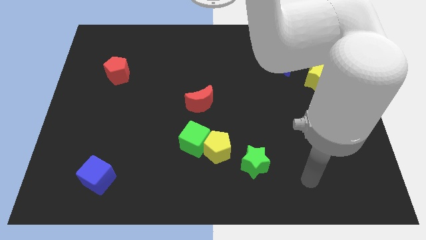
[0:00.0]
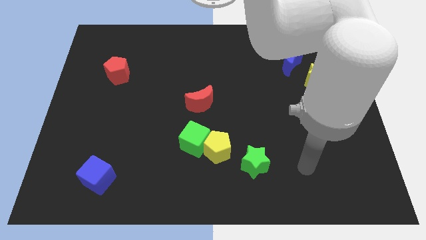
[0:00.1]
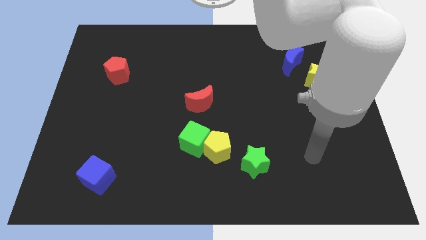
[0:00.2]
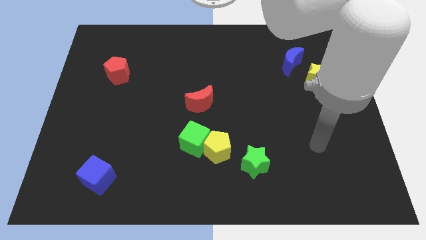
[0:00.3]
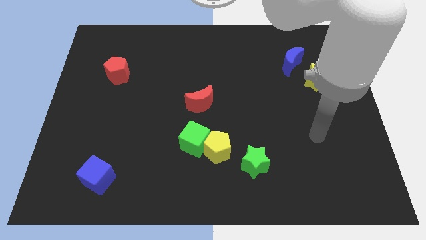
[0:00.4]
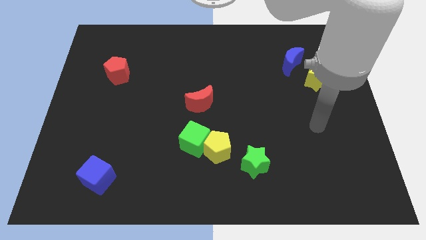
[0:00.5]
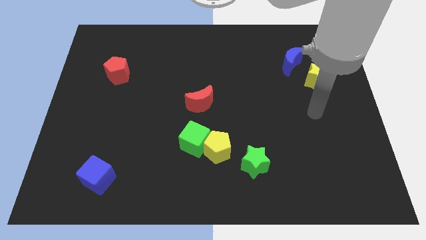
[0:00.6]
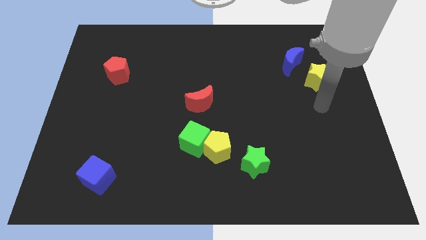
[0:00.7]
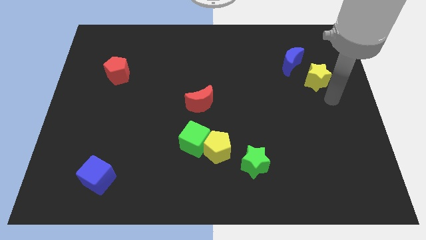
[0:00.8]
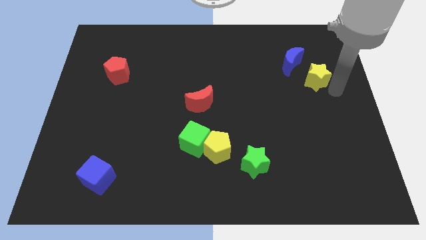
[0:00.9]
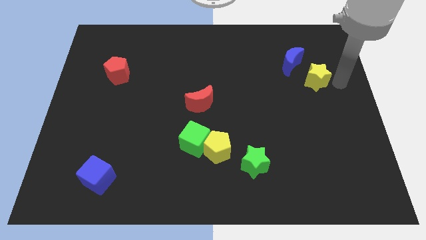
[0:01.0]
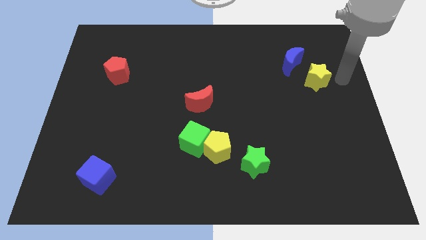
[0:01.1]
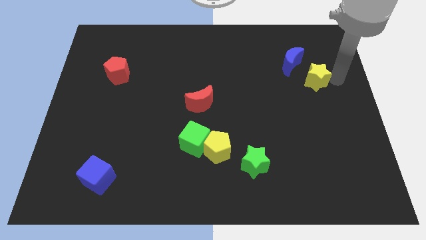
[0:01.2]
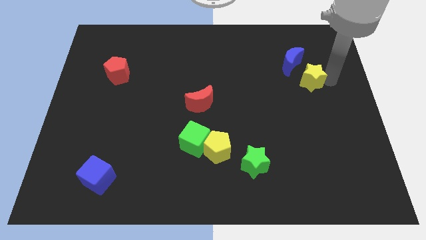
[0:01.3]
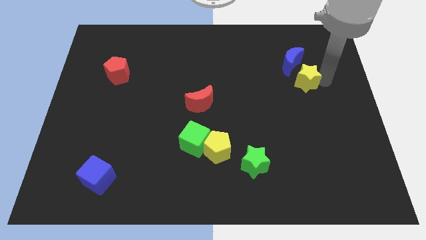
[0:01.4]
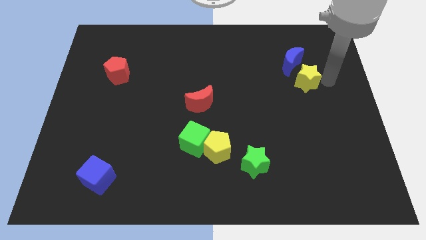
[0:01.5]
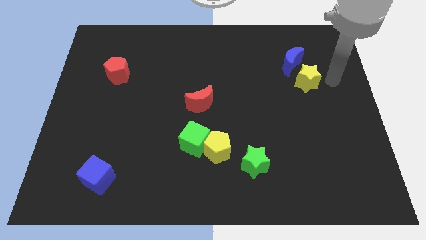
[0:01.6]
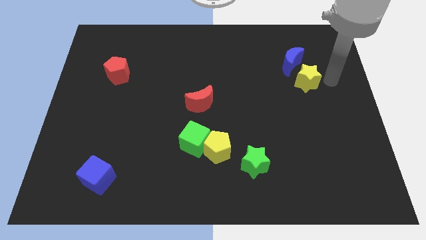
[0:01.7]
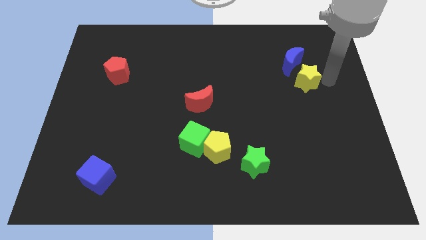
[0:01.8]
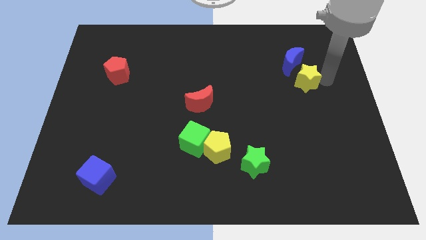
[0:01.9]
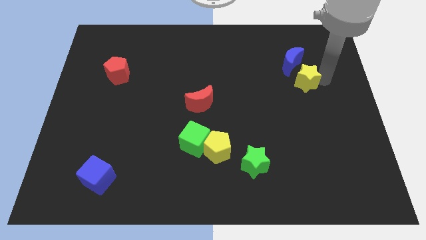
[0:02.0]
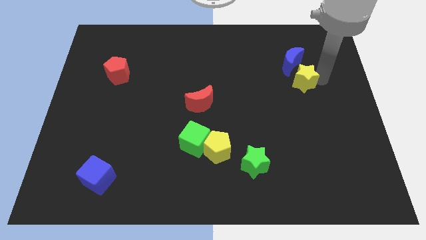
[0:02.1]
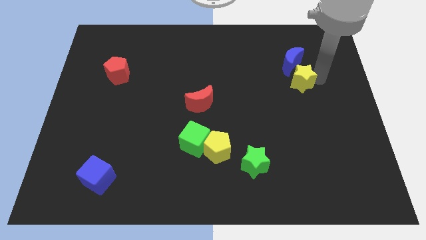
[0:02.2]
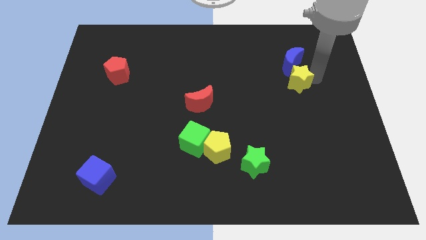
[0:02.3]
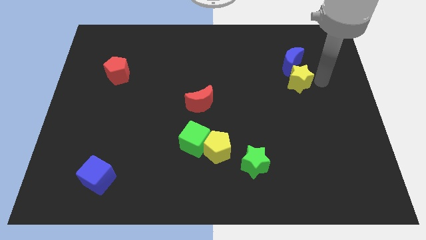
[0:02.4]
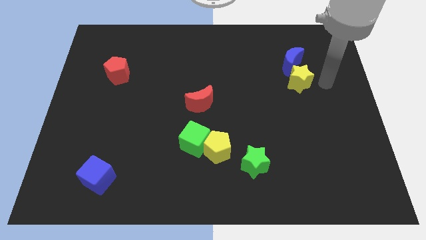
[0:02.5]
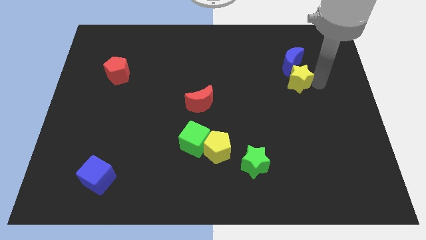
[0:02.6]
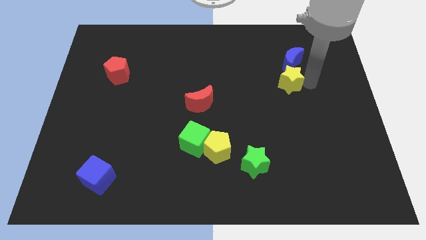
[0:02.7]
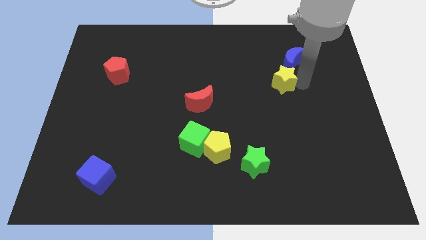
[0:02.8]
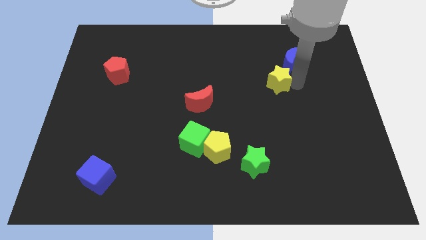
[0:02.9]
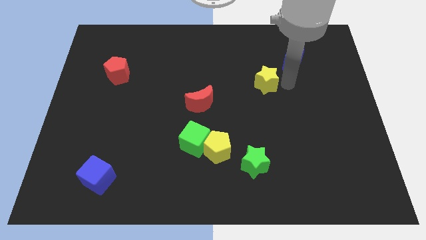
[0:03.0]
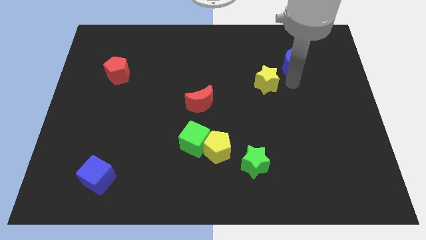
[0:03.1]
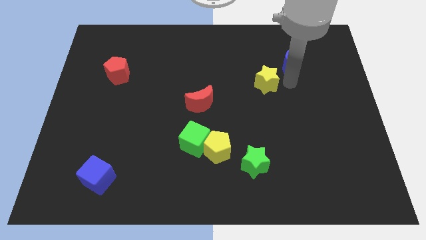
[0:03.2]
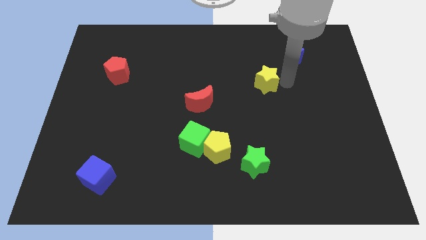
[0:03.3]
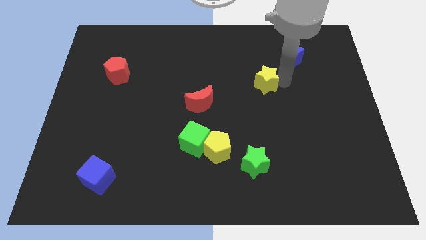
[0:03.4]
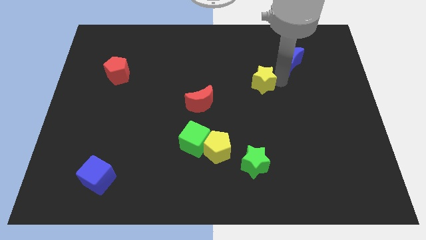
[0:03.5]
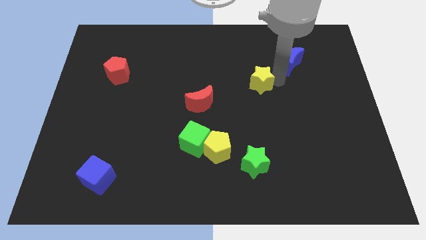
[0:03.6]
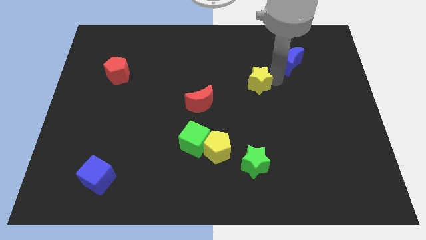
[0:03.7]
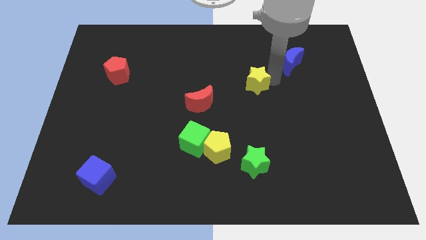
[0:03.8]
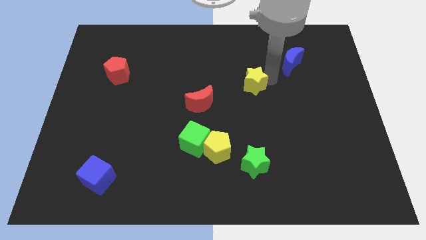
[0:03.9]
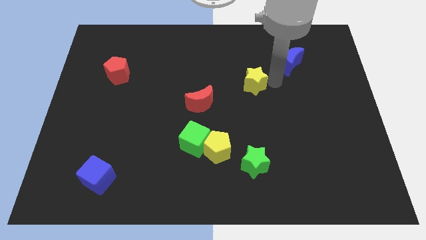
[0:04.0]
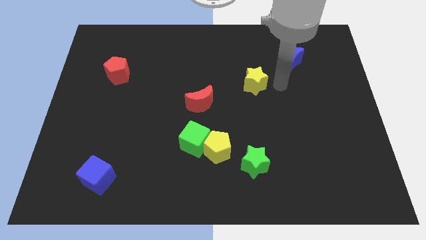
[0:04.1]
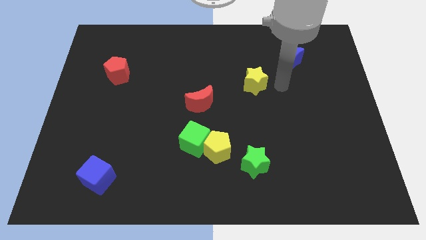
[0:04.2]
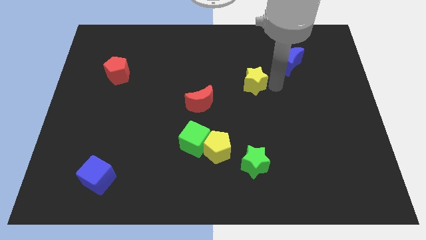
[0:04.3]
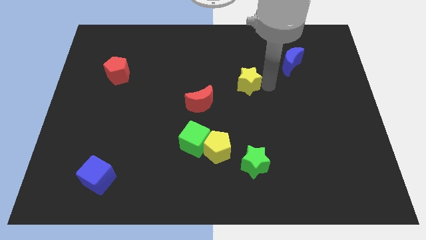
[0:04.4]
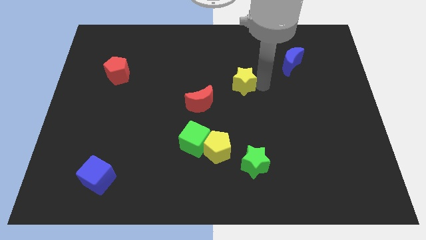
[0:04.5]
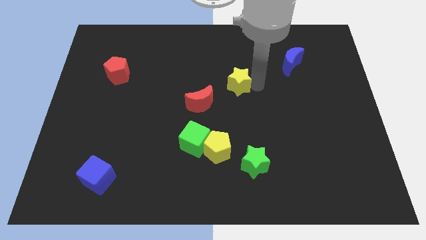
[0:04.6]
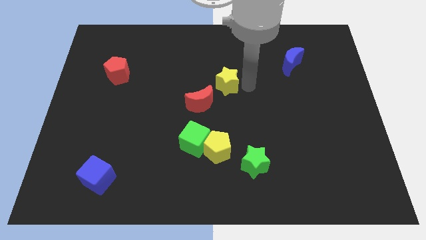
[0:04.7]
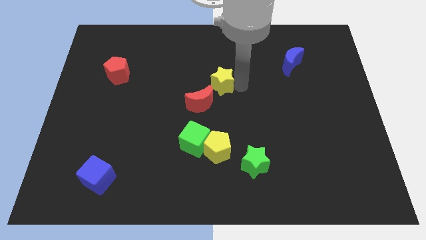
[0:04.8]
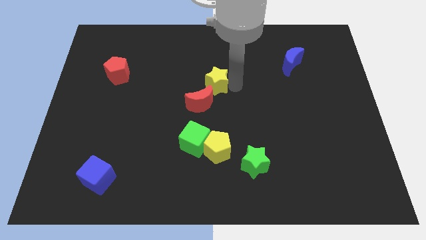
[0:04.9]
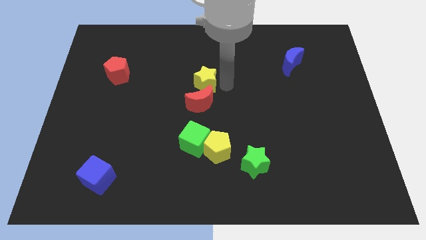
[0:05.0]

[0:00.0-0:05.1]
push the yellow star to the top left of the red moon

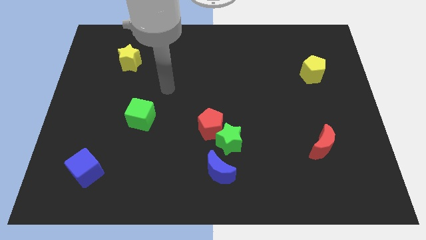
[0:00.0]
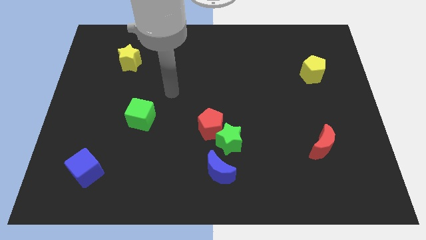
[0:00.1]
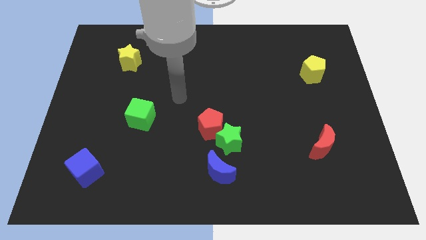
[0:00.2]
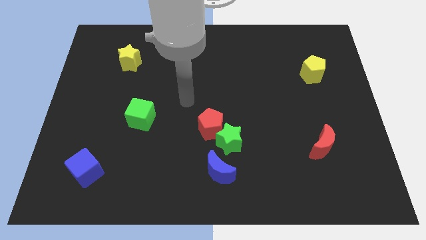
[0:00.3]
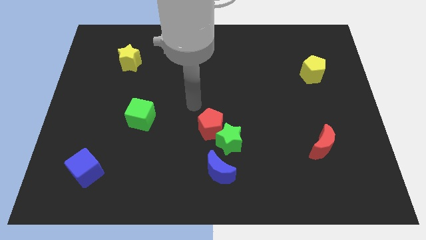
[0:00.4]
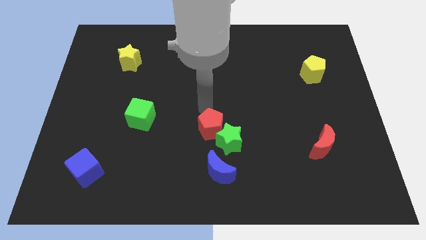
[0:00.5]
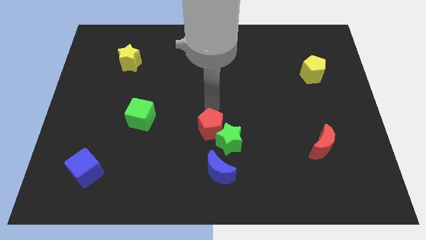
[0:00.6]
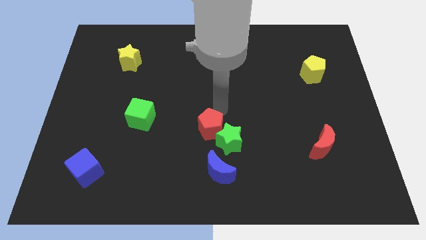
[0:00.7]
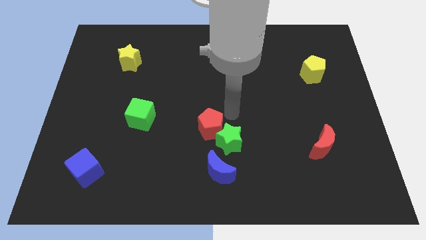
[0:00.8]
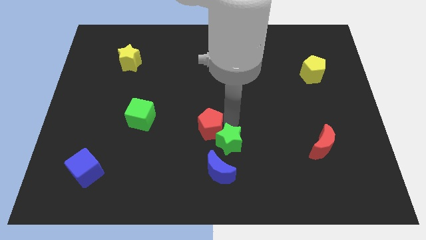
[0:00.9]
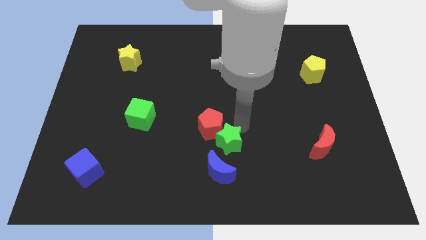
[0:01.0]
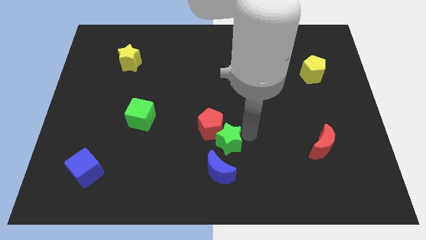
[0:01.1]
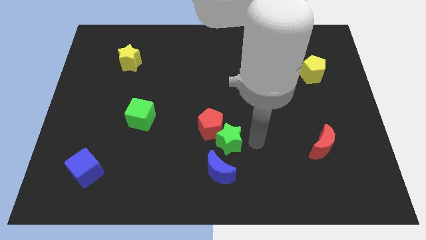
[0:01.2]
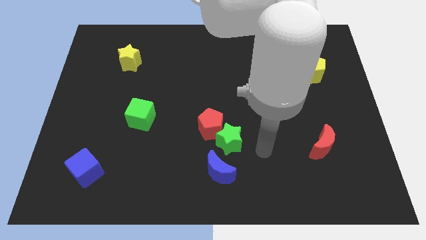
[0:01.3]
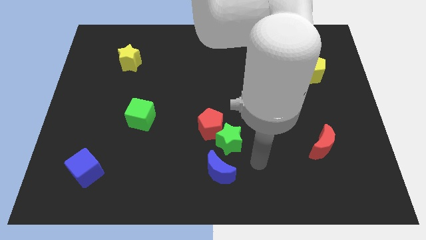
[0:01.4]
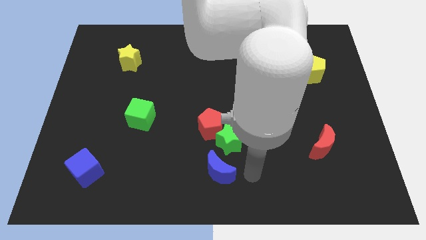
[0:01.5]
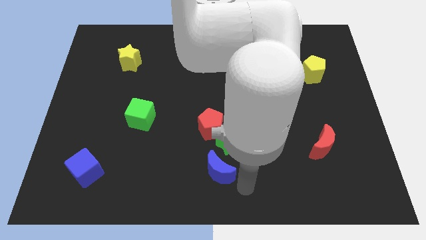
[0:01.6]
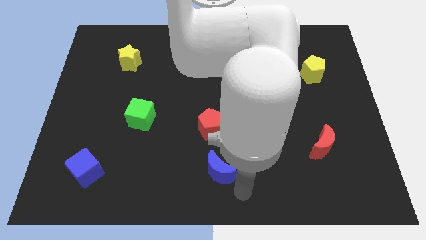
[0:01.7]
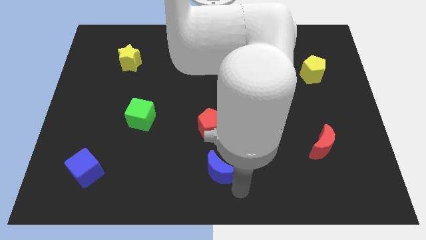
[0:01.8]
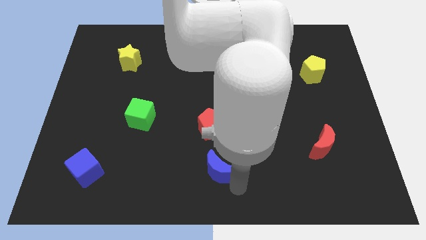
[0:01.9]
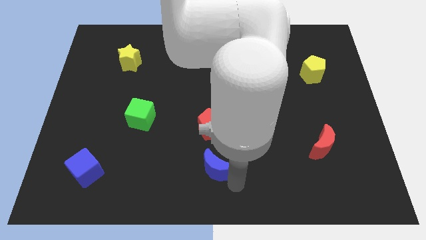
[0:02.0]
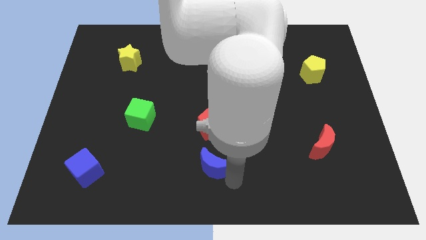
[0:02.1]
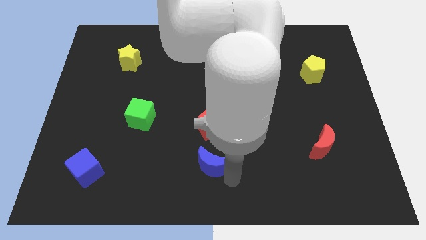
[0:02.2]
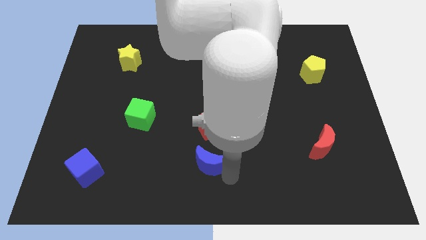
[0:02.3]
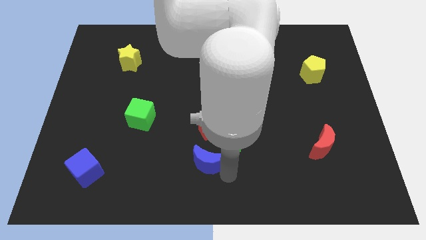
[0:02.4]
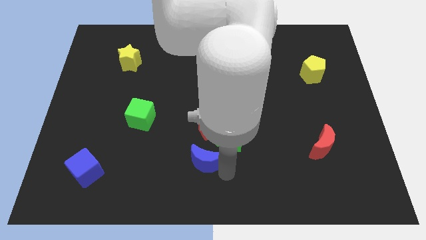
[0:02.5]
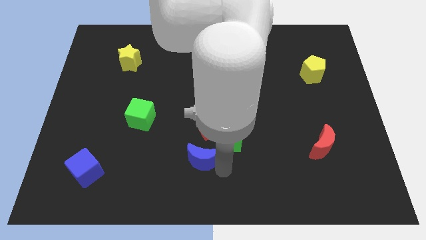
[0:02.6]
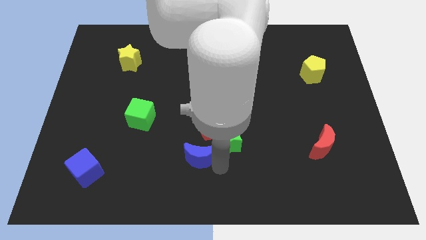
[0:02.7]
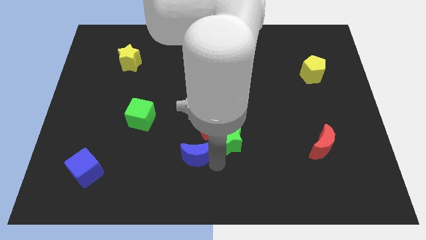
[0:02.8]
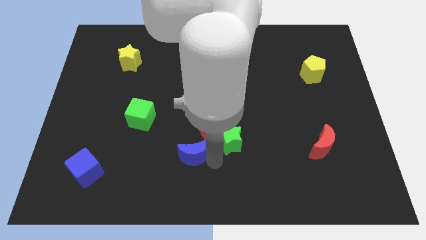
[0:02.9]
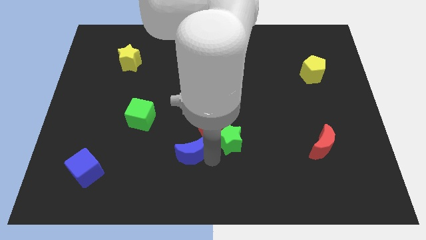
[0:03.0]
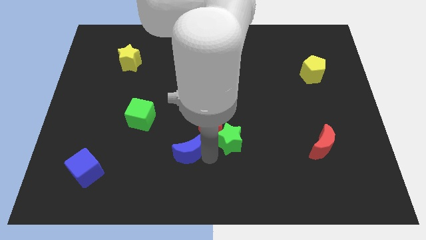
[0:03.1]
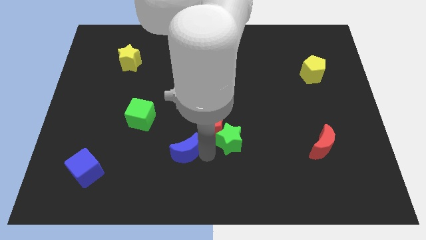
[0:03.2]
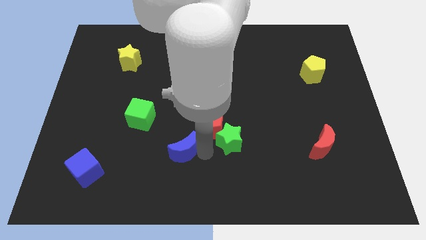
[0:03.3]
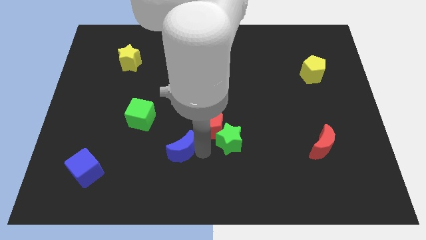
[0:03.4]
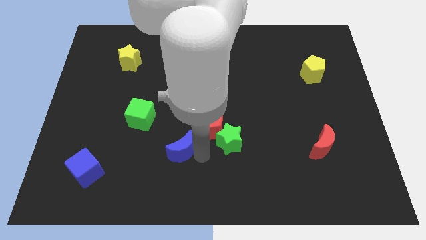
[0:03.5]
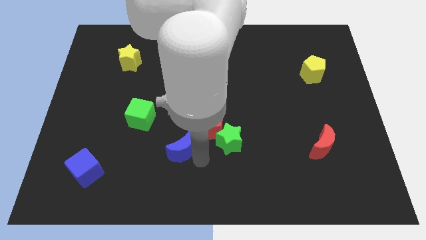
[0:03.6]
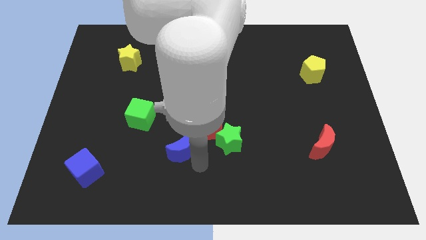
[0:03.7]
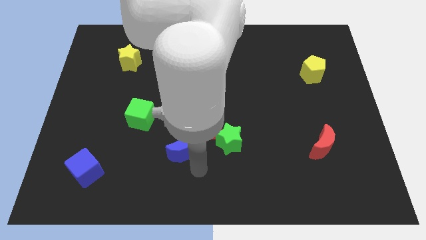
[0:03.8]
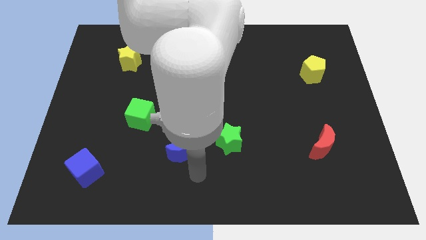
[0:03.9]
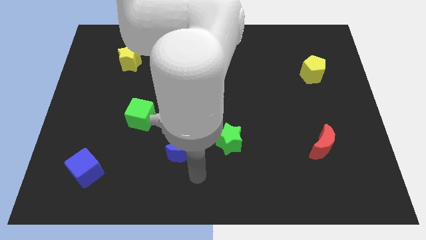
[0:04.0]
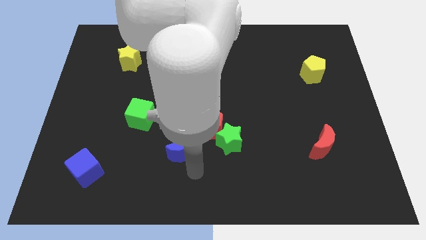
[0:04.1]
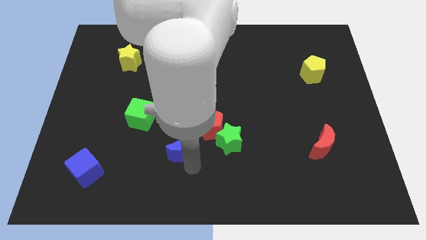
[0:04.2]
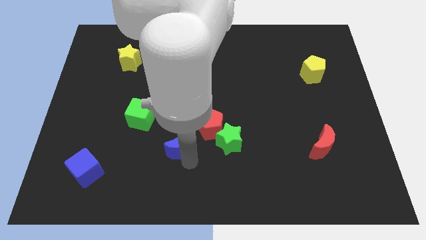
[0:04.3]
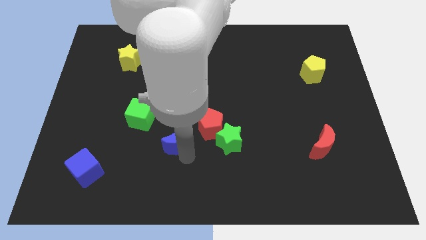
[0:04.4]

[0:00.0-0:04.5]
move the blue moon to the left of the red pentagon
